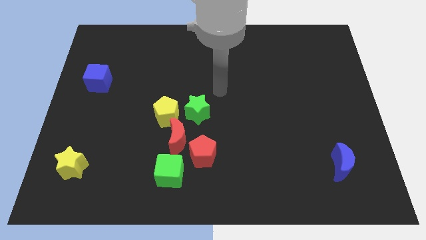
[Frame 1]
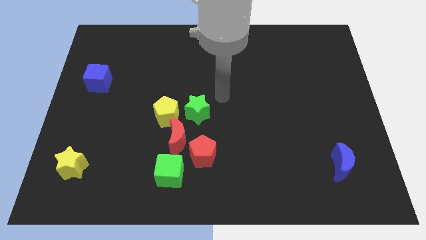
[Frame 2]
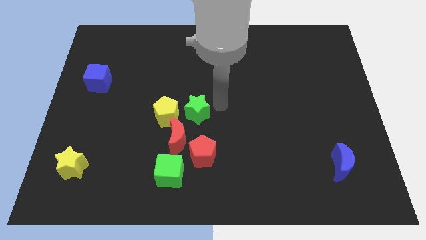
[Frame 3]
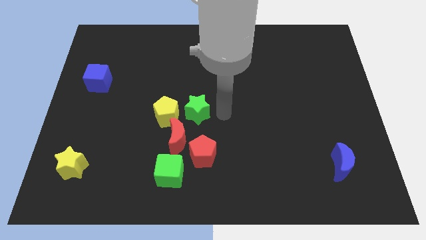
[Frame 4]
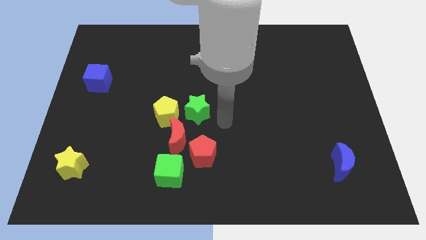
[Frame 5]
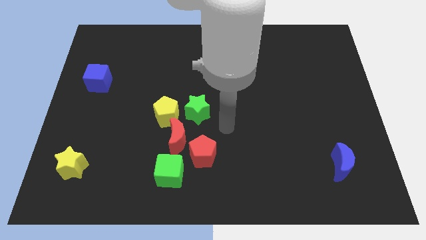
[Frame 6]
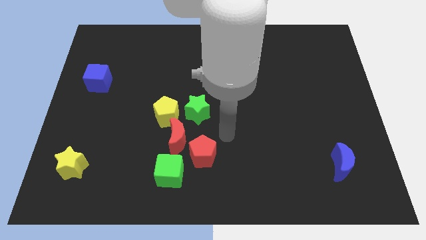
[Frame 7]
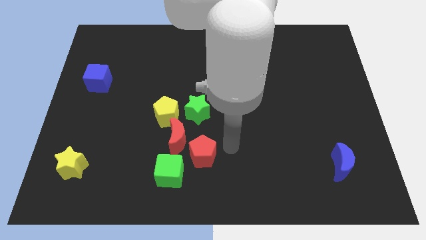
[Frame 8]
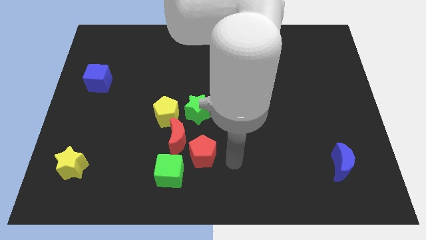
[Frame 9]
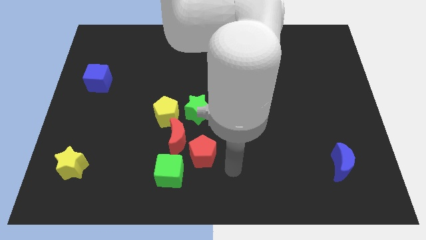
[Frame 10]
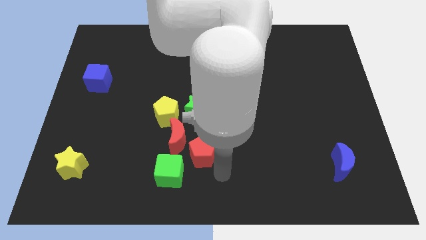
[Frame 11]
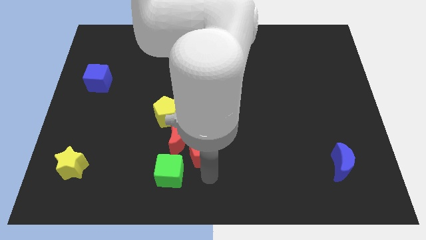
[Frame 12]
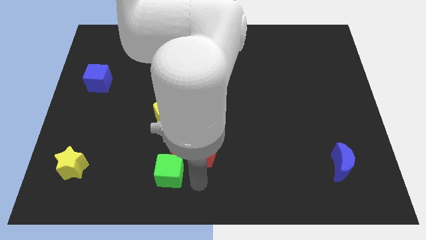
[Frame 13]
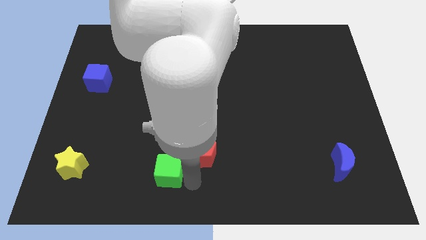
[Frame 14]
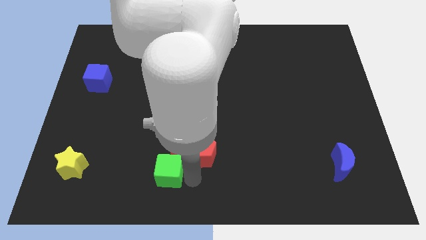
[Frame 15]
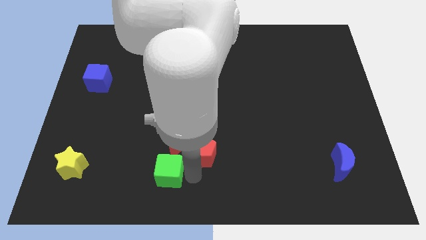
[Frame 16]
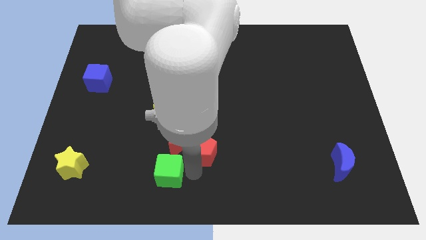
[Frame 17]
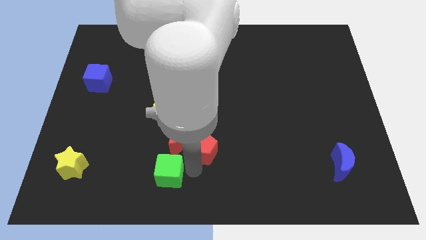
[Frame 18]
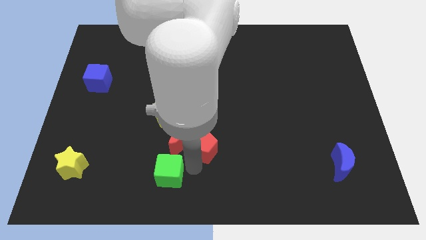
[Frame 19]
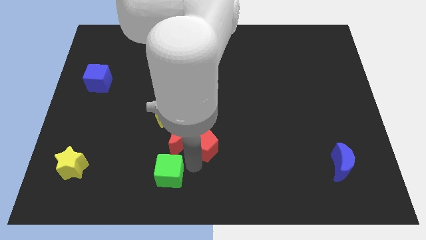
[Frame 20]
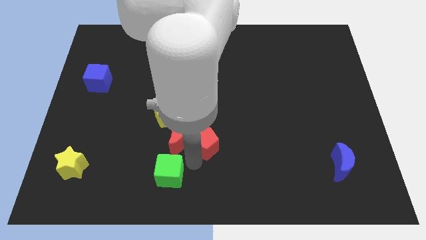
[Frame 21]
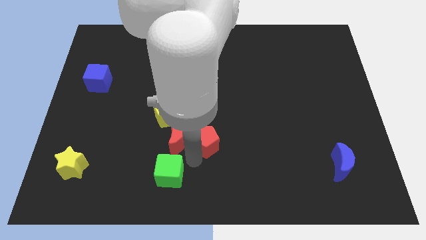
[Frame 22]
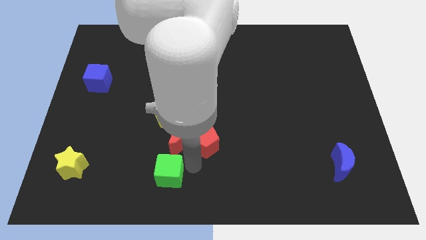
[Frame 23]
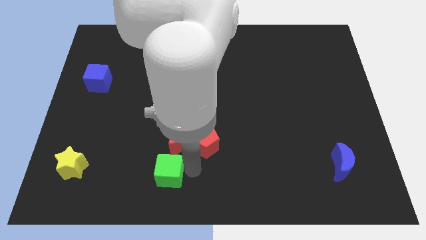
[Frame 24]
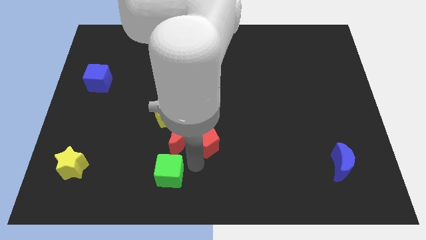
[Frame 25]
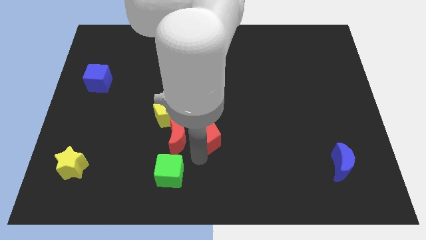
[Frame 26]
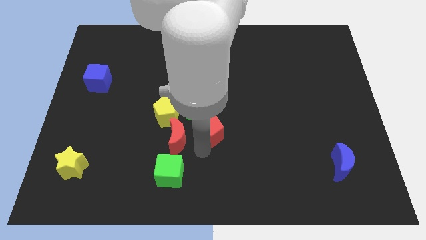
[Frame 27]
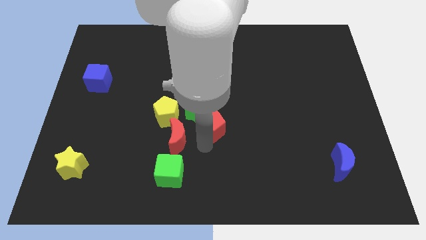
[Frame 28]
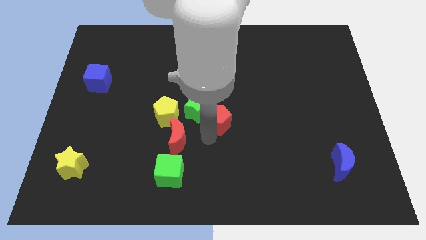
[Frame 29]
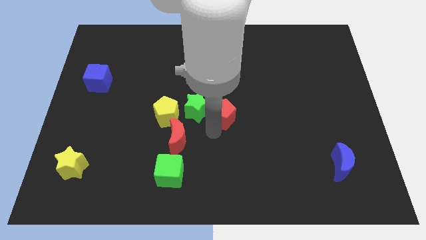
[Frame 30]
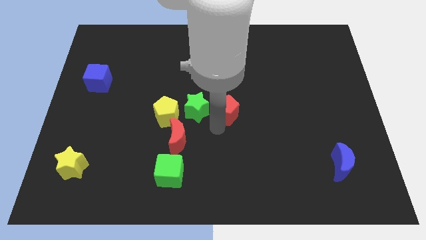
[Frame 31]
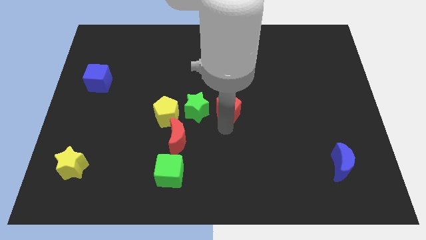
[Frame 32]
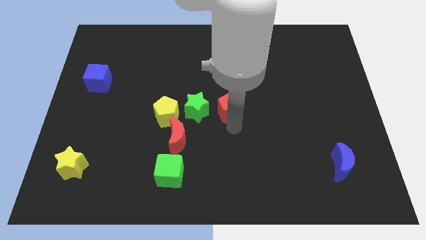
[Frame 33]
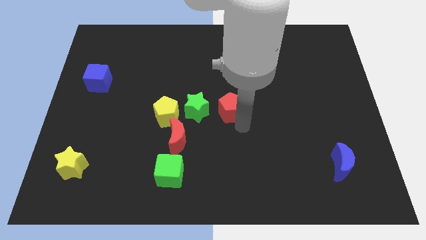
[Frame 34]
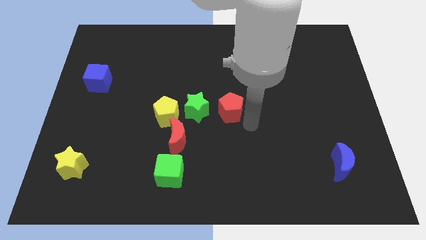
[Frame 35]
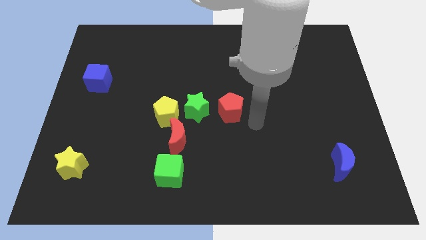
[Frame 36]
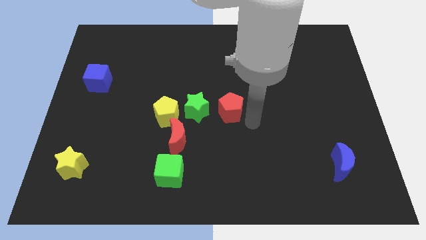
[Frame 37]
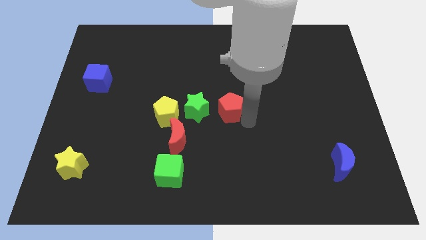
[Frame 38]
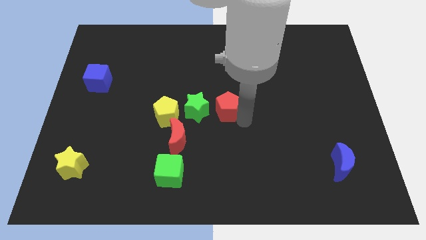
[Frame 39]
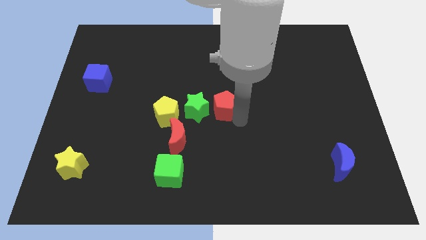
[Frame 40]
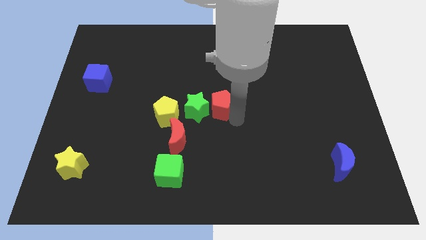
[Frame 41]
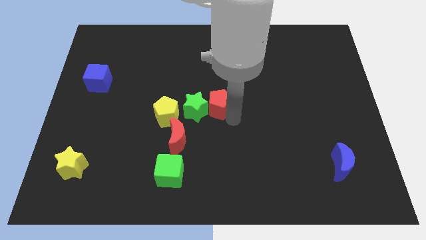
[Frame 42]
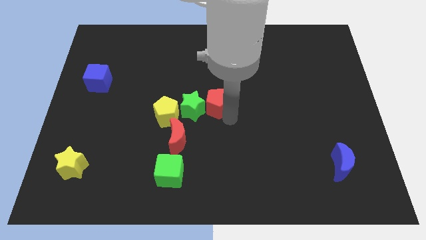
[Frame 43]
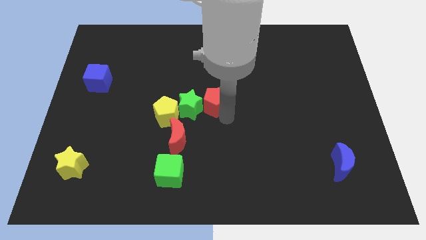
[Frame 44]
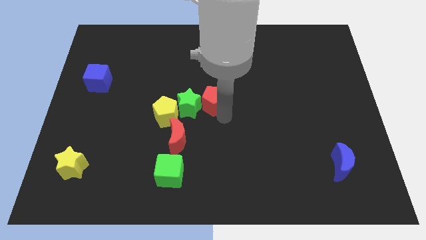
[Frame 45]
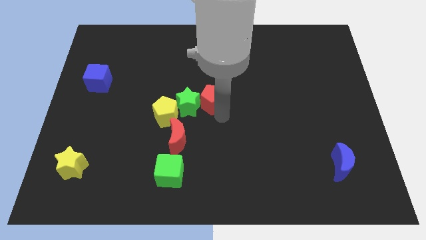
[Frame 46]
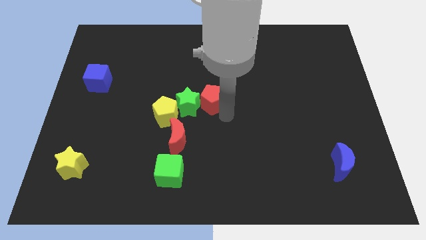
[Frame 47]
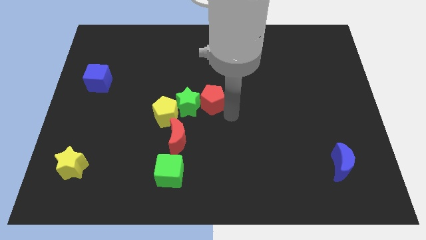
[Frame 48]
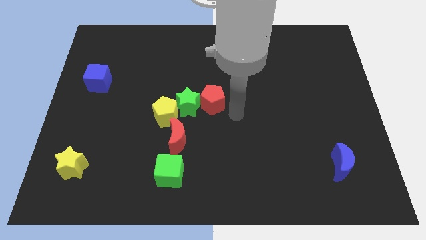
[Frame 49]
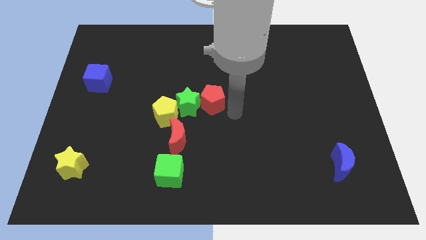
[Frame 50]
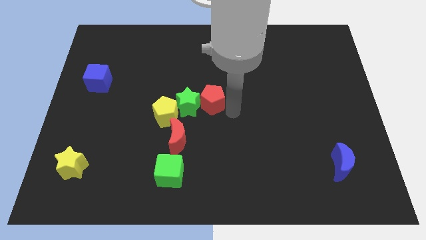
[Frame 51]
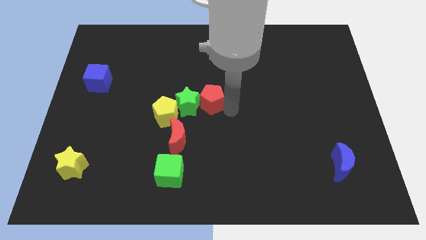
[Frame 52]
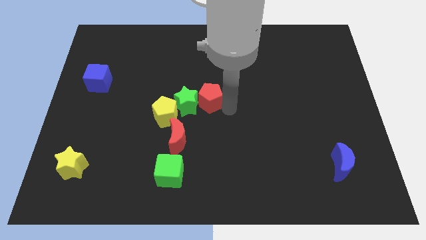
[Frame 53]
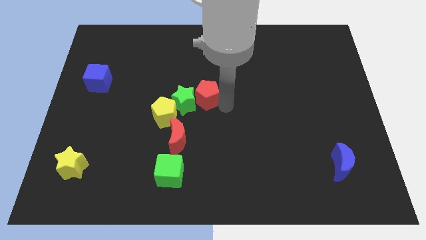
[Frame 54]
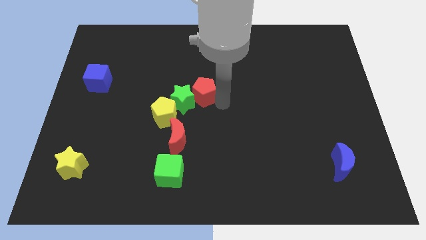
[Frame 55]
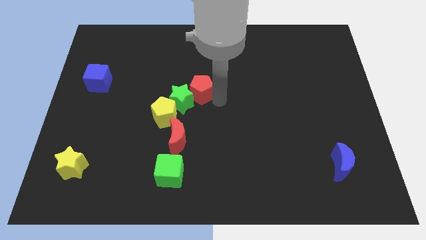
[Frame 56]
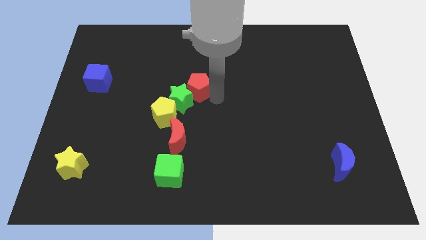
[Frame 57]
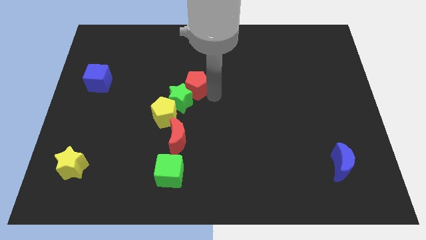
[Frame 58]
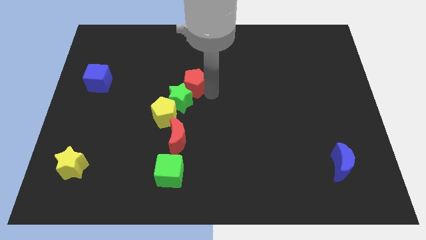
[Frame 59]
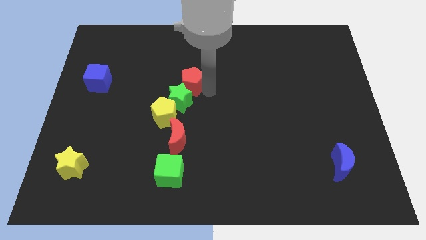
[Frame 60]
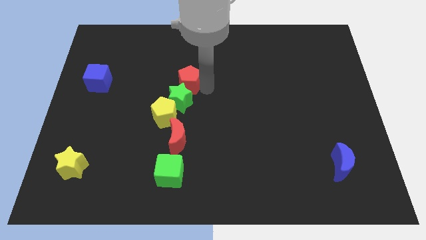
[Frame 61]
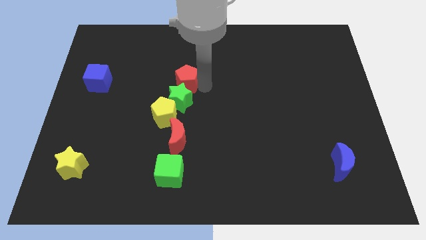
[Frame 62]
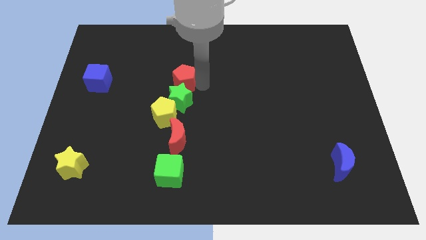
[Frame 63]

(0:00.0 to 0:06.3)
push the red pentagon diagonally up and to the left of the green star
